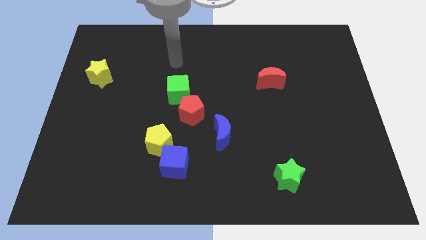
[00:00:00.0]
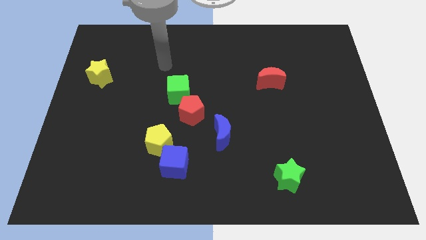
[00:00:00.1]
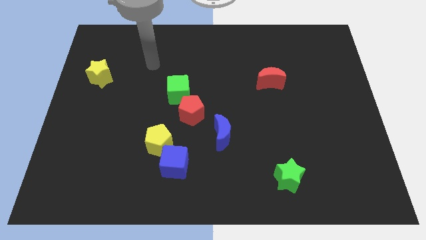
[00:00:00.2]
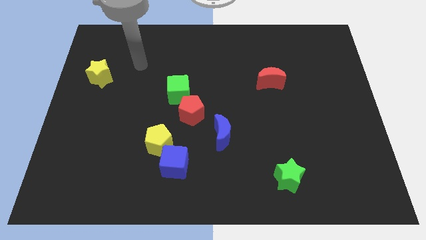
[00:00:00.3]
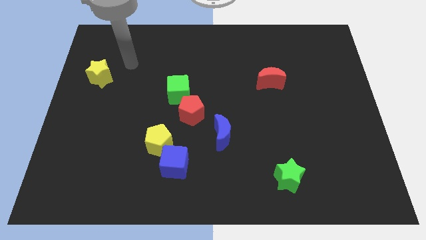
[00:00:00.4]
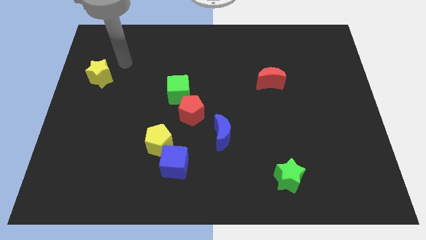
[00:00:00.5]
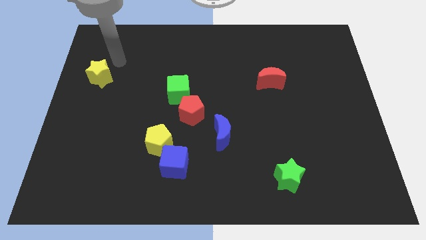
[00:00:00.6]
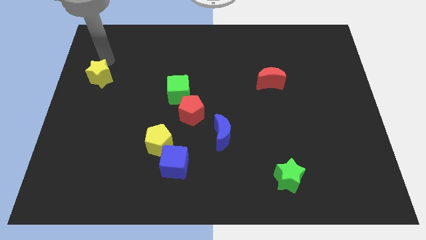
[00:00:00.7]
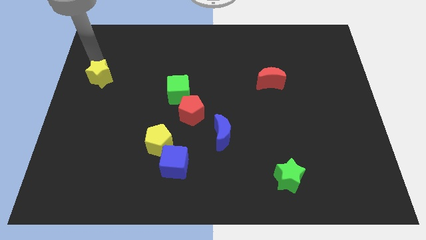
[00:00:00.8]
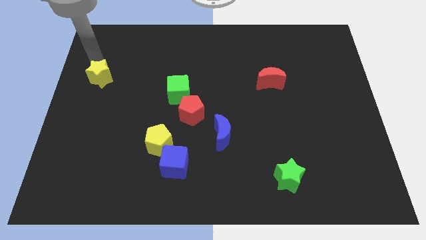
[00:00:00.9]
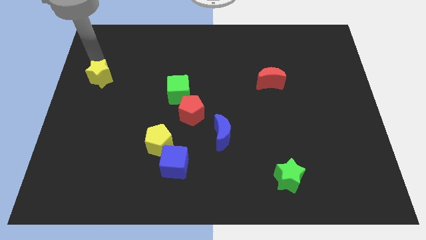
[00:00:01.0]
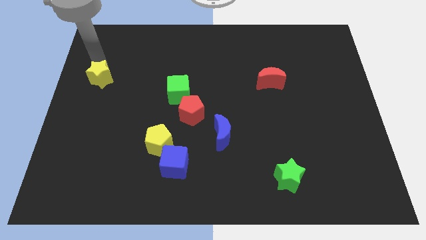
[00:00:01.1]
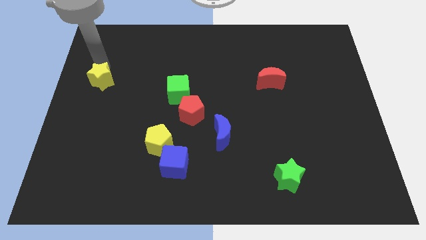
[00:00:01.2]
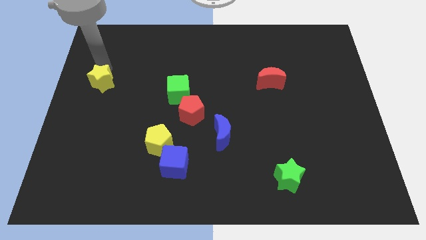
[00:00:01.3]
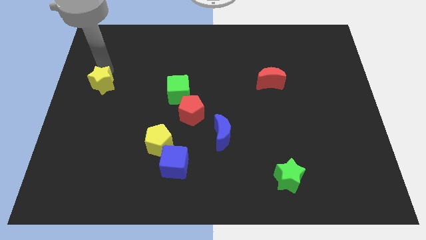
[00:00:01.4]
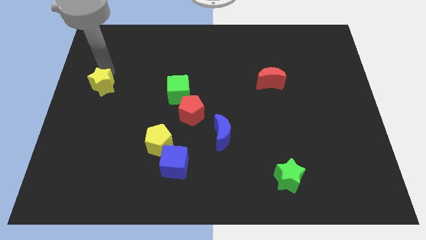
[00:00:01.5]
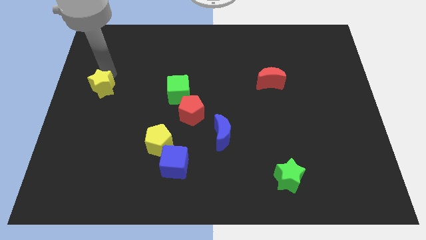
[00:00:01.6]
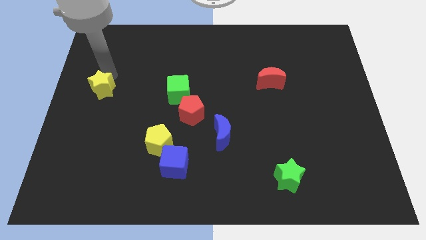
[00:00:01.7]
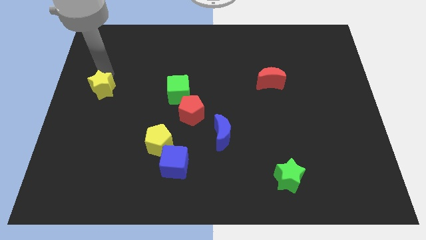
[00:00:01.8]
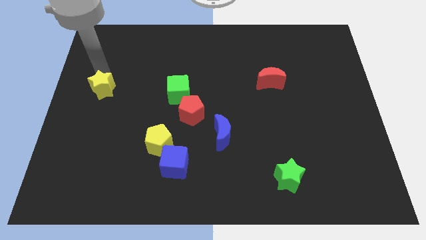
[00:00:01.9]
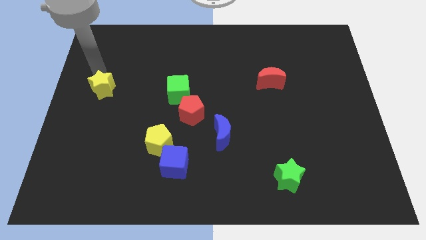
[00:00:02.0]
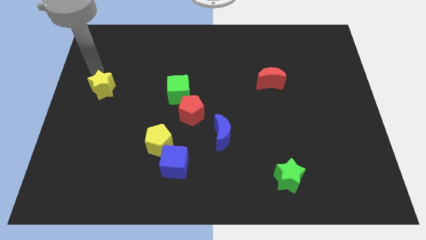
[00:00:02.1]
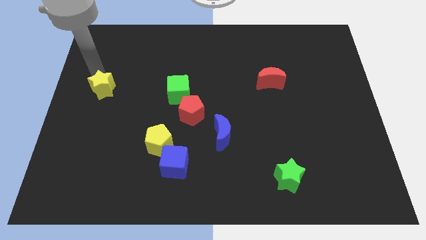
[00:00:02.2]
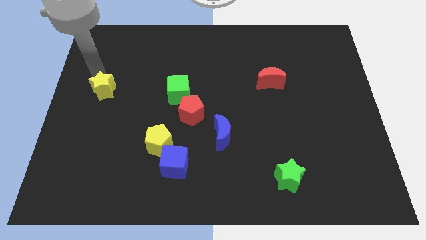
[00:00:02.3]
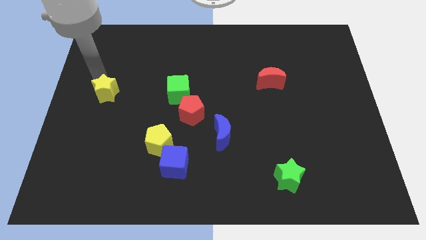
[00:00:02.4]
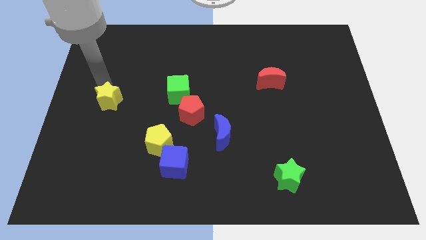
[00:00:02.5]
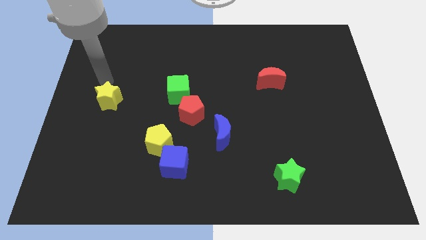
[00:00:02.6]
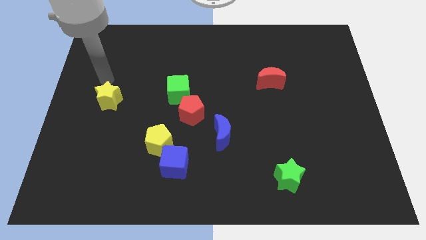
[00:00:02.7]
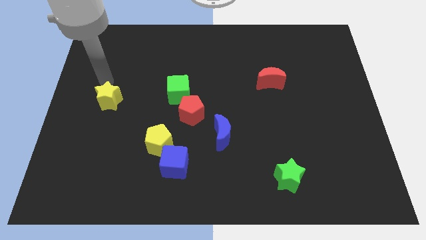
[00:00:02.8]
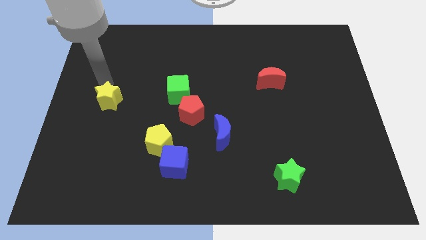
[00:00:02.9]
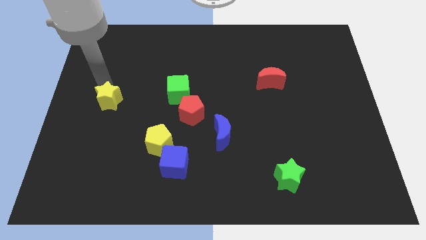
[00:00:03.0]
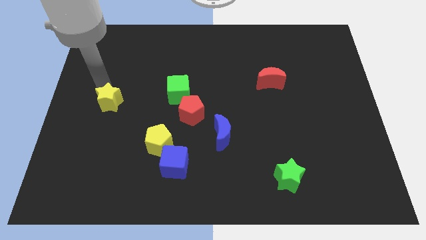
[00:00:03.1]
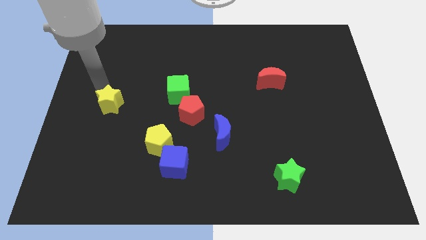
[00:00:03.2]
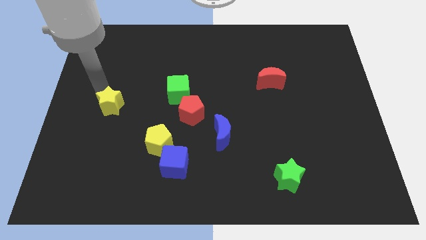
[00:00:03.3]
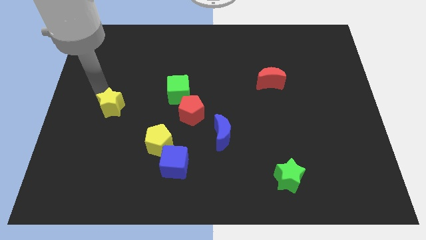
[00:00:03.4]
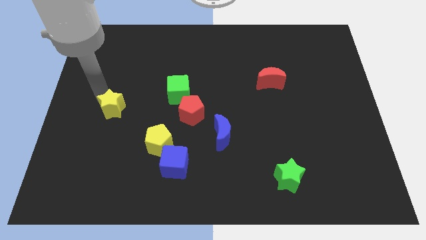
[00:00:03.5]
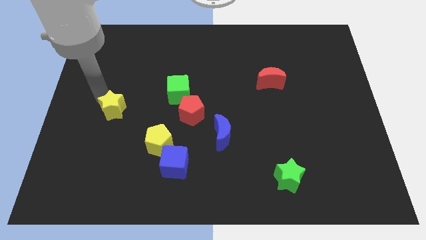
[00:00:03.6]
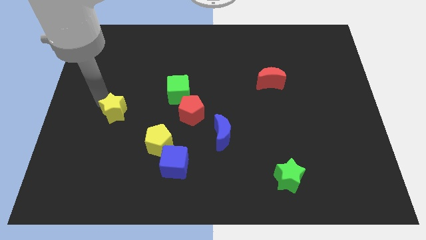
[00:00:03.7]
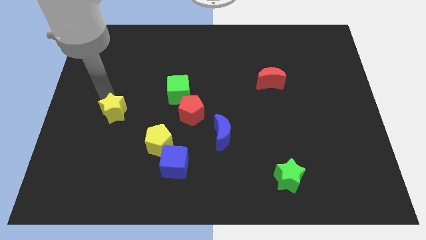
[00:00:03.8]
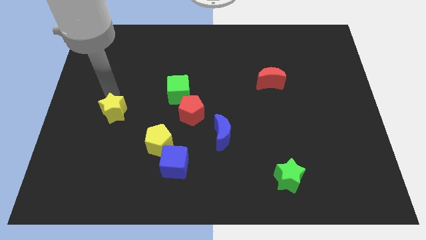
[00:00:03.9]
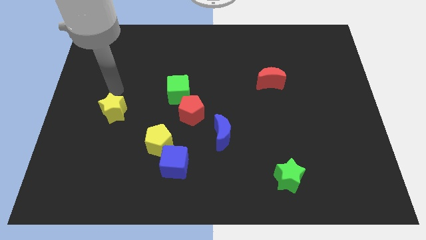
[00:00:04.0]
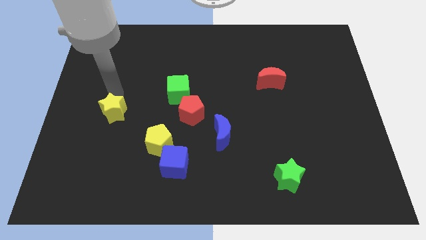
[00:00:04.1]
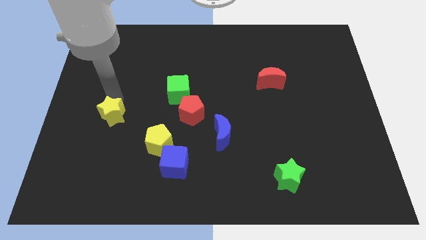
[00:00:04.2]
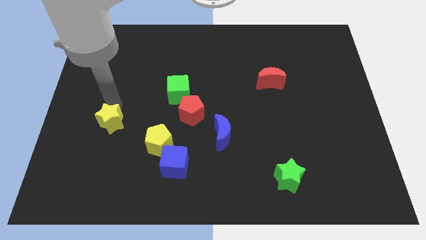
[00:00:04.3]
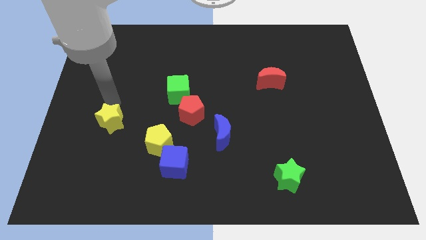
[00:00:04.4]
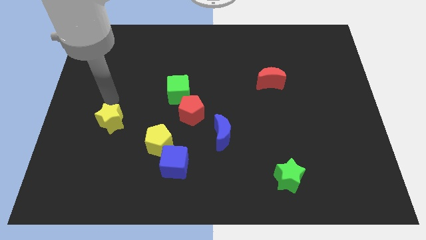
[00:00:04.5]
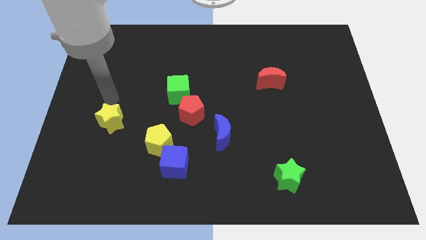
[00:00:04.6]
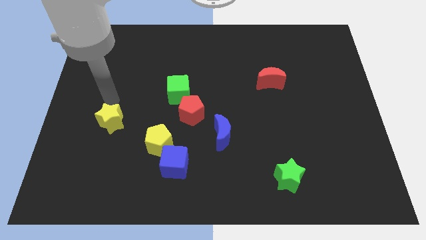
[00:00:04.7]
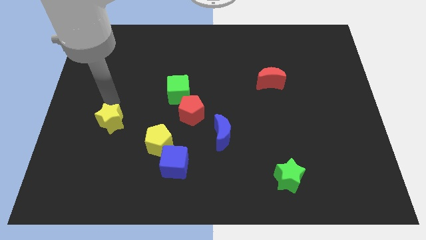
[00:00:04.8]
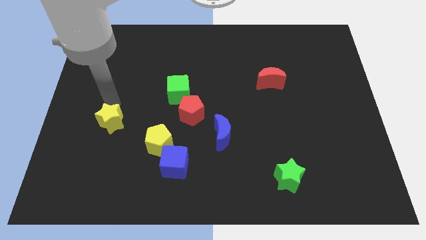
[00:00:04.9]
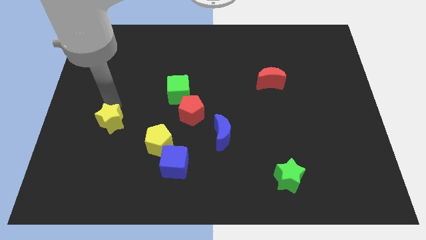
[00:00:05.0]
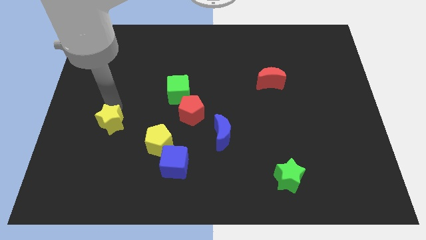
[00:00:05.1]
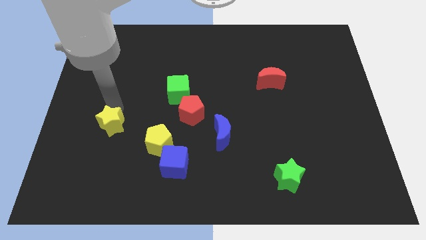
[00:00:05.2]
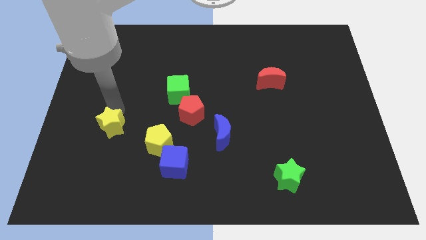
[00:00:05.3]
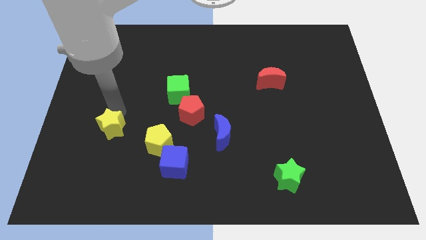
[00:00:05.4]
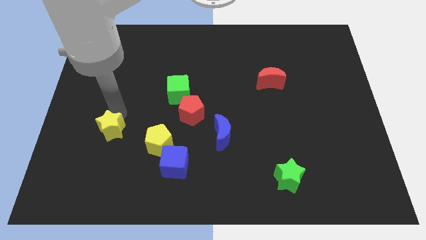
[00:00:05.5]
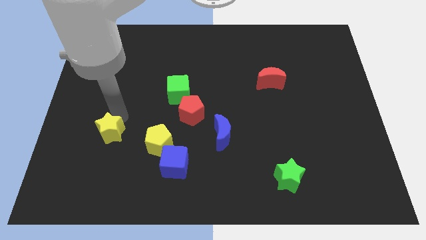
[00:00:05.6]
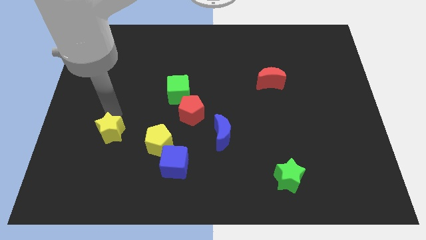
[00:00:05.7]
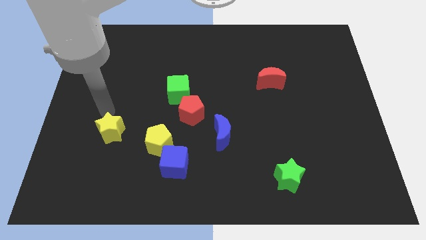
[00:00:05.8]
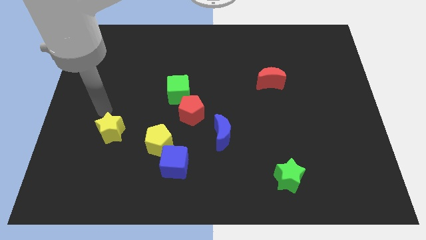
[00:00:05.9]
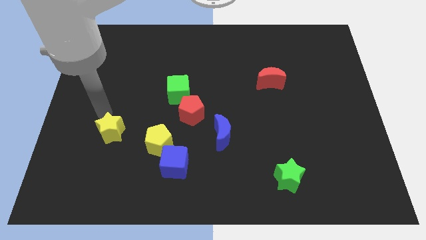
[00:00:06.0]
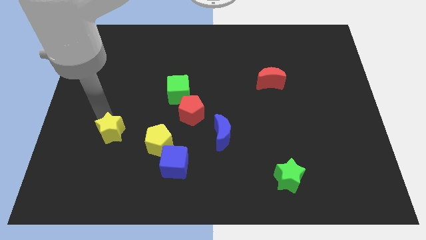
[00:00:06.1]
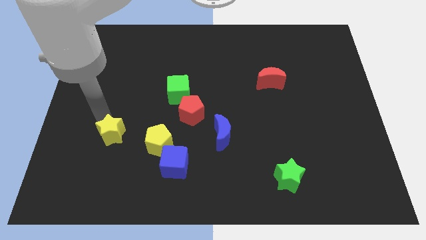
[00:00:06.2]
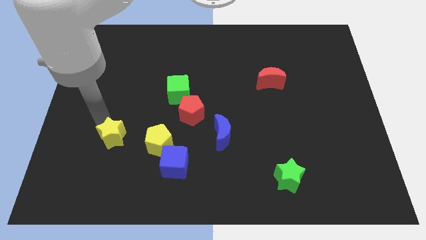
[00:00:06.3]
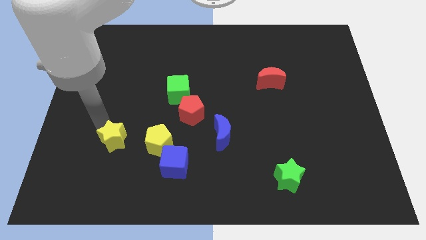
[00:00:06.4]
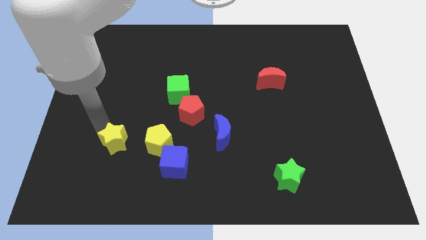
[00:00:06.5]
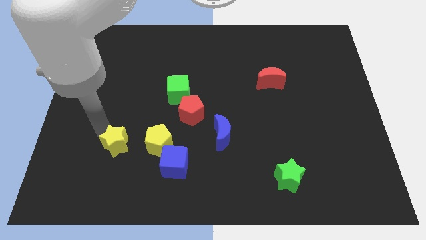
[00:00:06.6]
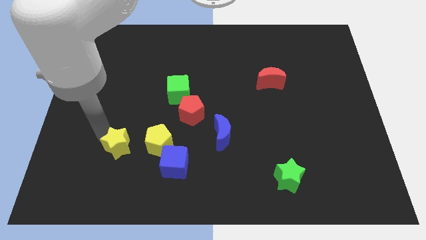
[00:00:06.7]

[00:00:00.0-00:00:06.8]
put the yellow star to the left side of the blue cube
